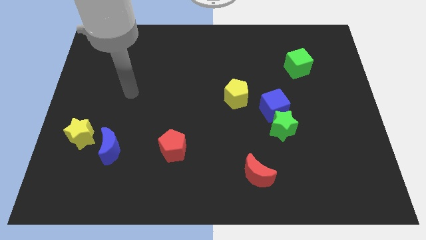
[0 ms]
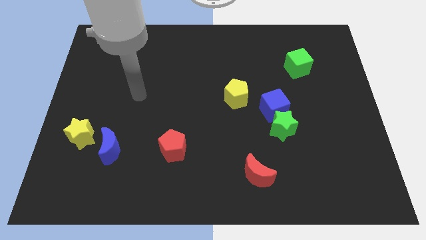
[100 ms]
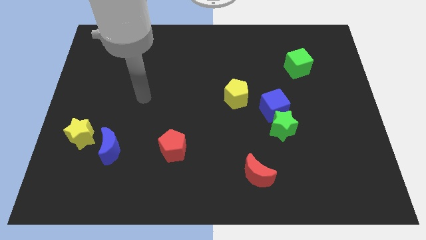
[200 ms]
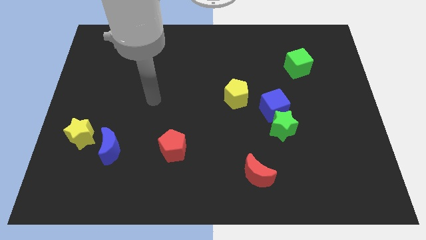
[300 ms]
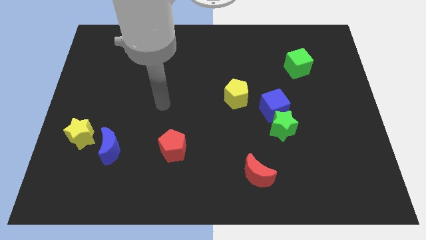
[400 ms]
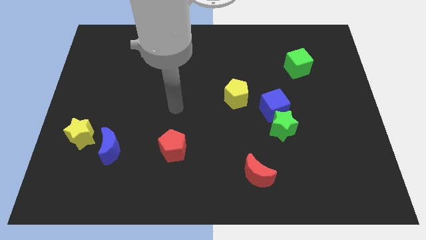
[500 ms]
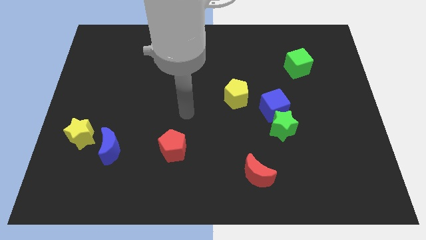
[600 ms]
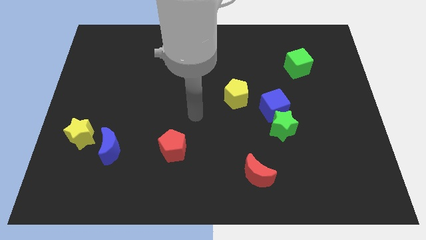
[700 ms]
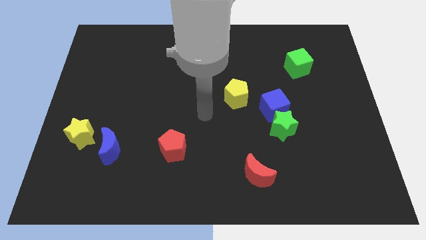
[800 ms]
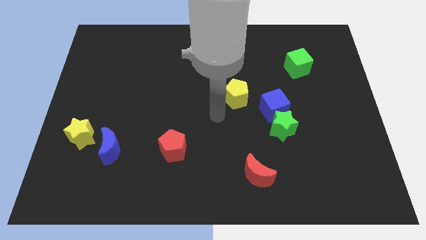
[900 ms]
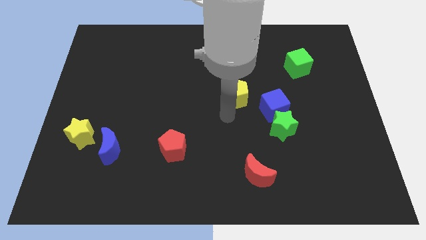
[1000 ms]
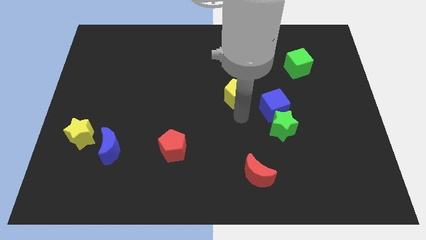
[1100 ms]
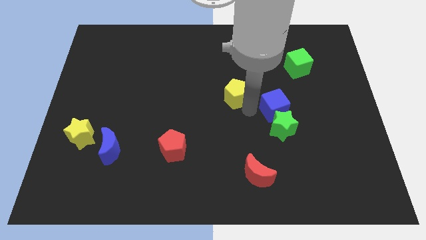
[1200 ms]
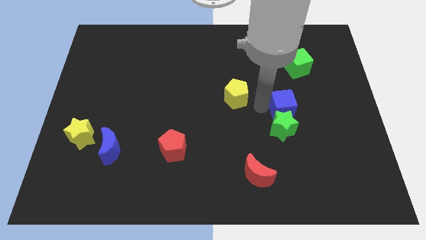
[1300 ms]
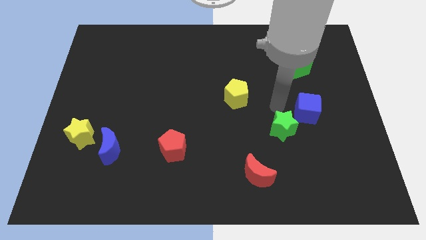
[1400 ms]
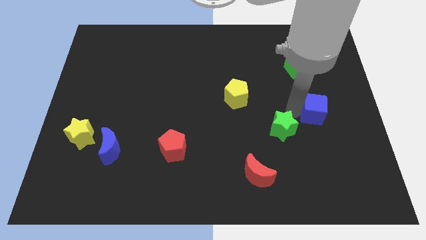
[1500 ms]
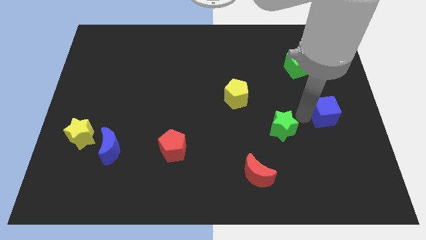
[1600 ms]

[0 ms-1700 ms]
move the green star away from the blue cube

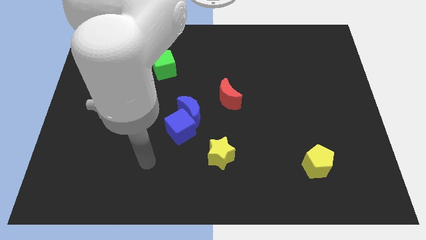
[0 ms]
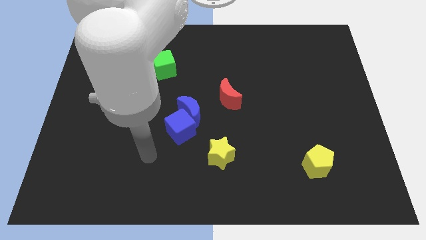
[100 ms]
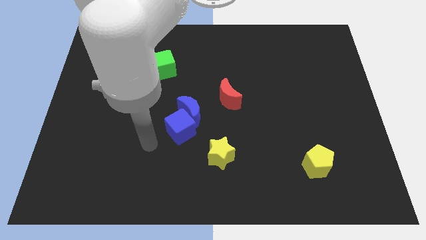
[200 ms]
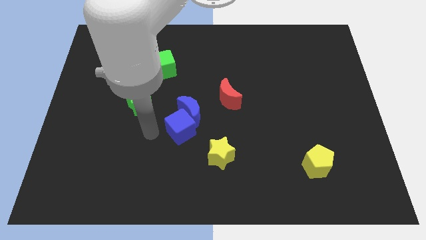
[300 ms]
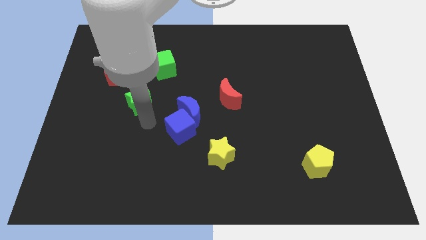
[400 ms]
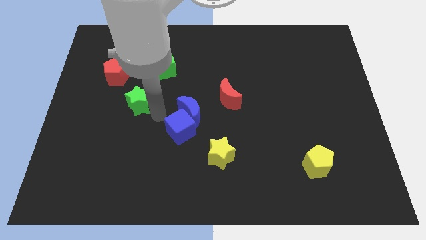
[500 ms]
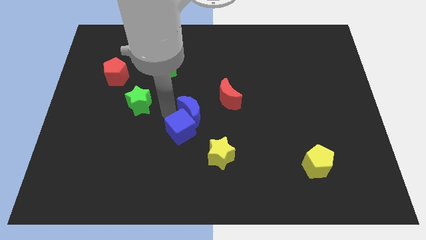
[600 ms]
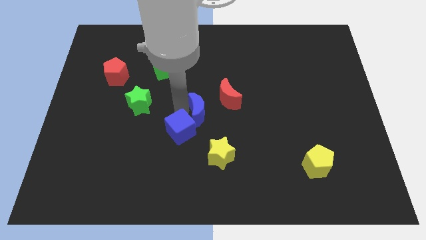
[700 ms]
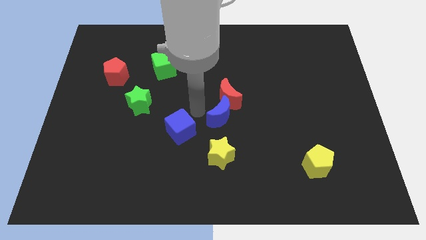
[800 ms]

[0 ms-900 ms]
separate the blue cube from the blue moon

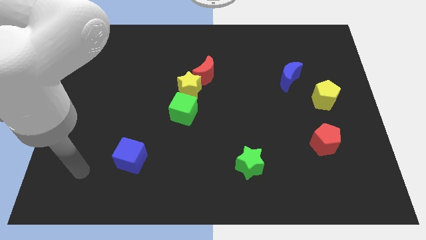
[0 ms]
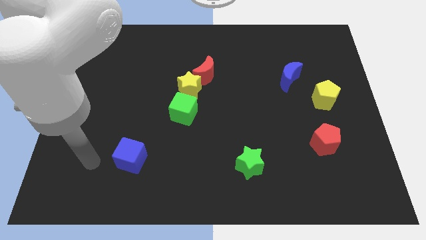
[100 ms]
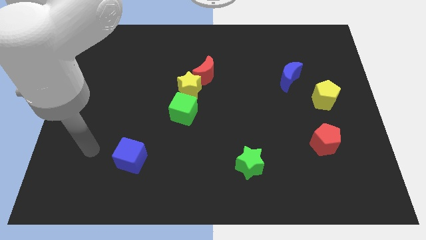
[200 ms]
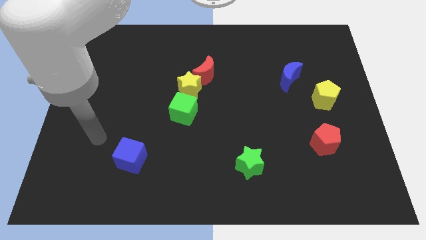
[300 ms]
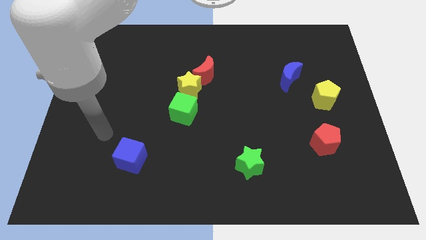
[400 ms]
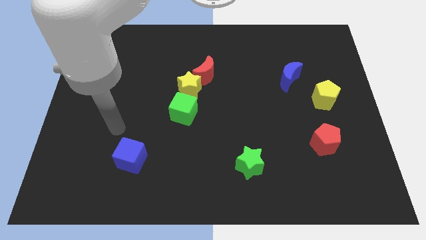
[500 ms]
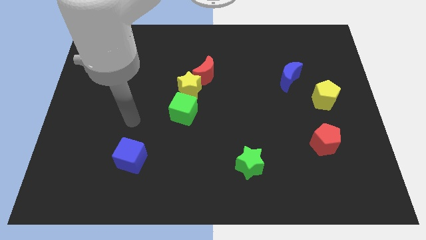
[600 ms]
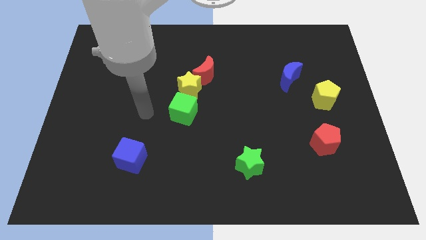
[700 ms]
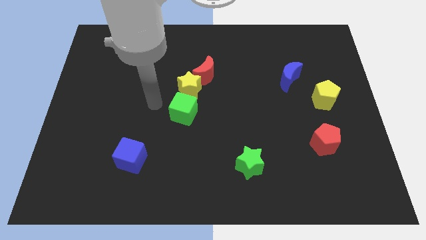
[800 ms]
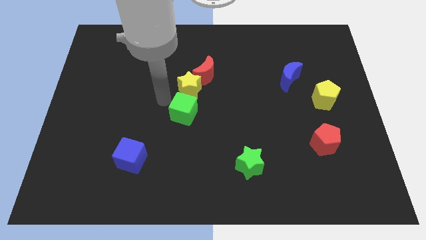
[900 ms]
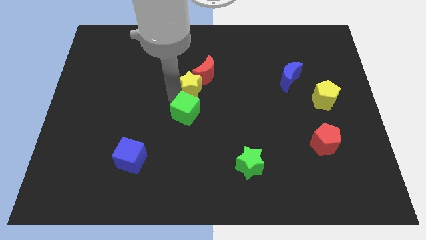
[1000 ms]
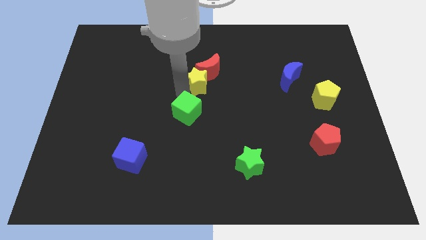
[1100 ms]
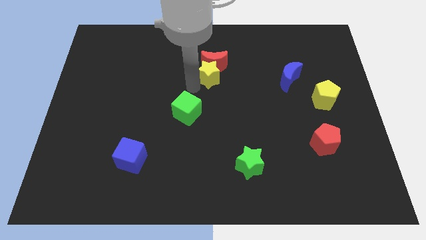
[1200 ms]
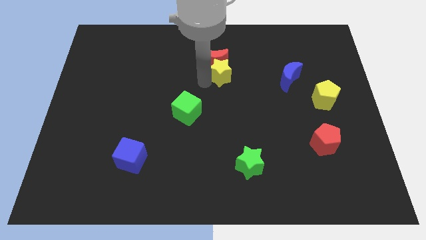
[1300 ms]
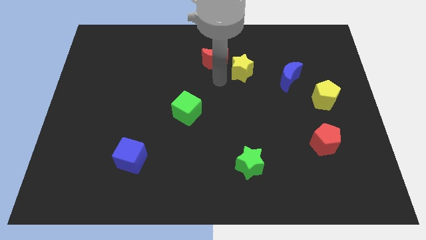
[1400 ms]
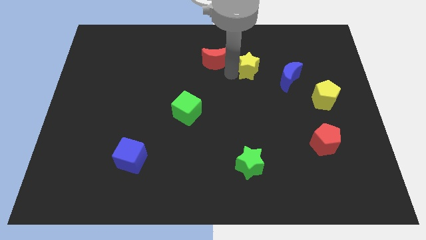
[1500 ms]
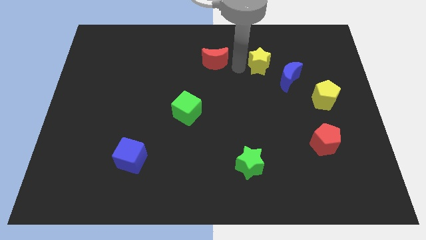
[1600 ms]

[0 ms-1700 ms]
move the red moon away from the yellow star

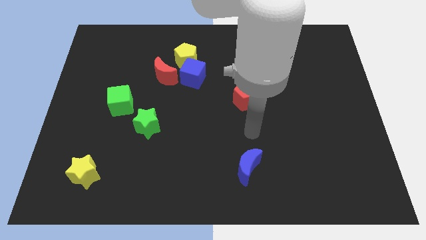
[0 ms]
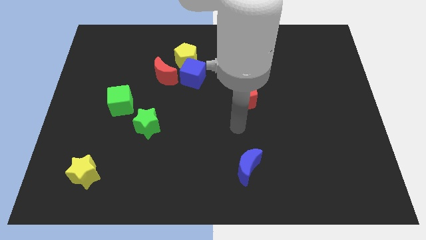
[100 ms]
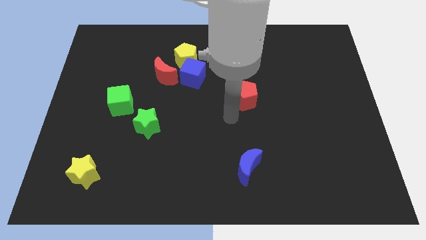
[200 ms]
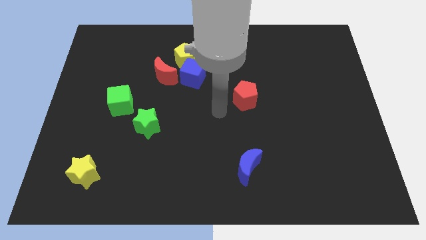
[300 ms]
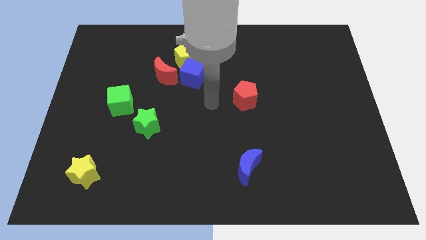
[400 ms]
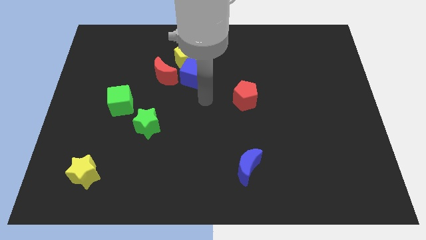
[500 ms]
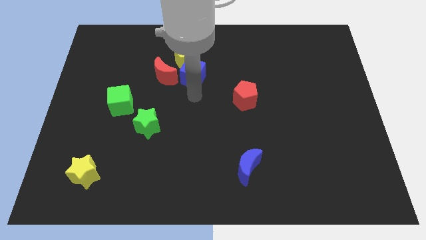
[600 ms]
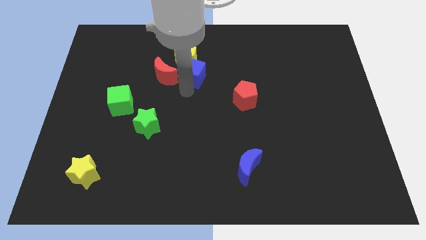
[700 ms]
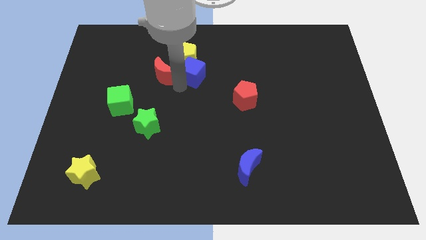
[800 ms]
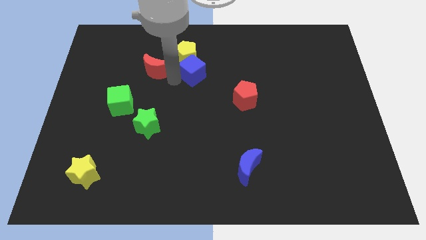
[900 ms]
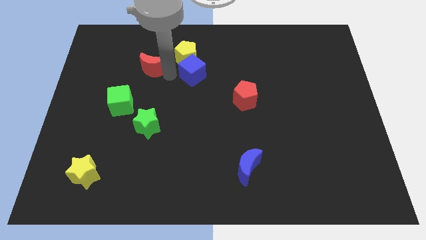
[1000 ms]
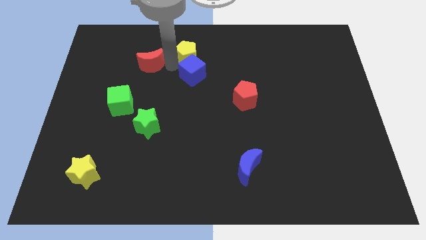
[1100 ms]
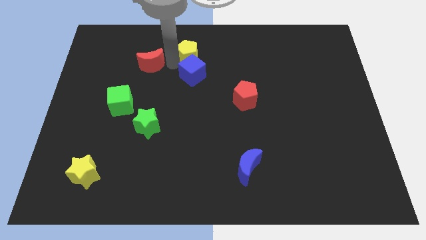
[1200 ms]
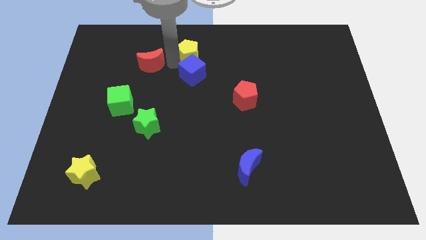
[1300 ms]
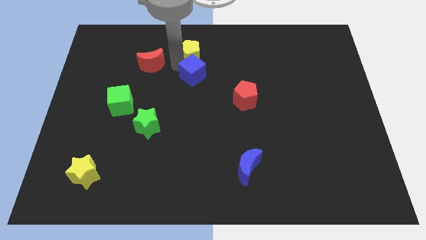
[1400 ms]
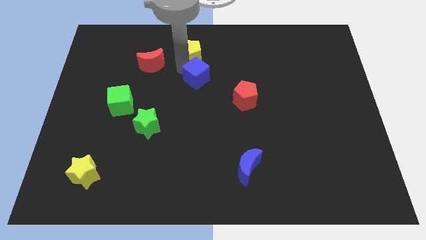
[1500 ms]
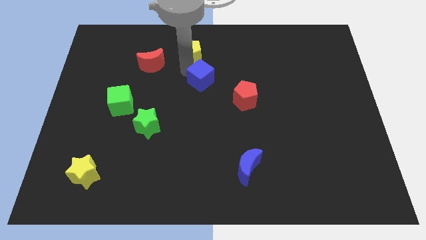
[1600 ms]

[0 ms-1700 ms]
move the blue cube away from the yellow pentagon and red moon

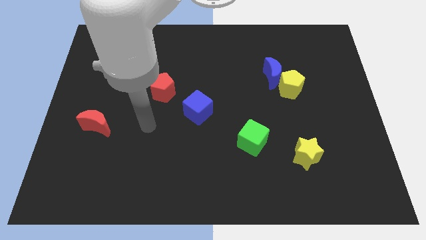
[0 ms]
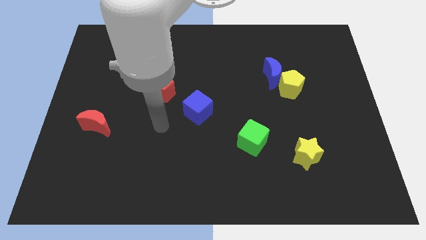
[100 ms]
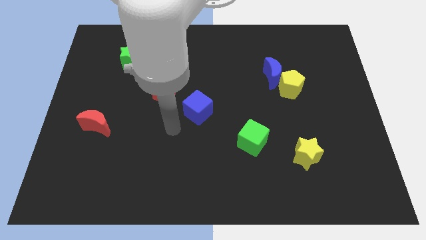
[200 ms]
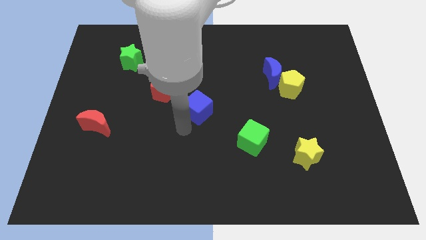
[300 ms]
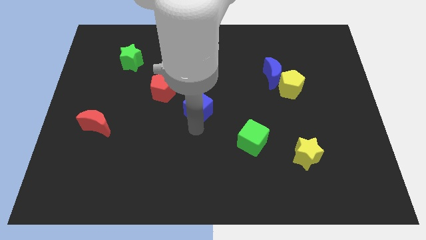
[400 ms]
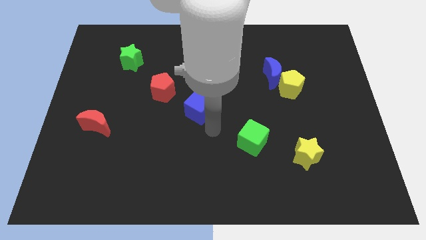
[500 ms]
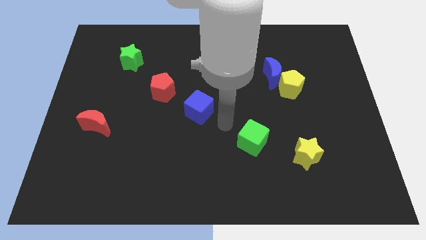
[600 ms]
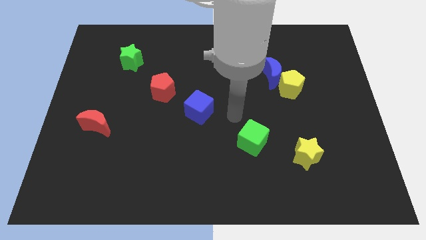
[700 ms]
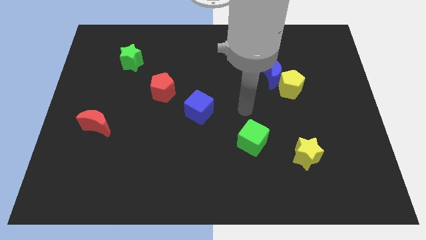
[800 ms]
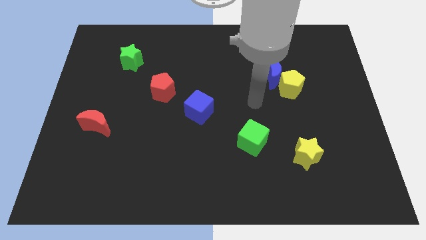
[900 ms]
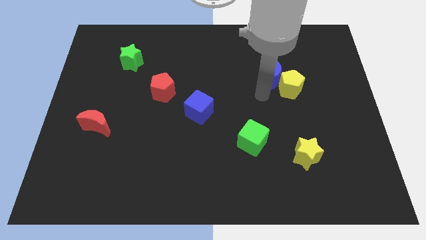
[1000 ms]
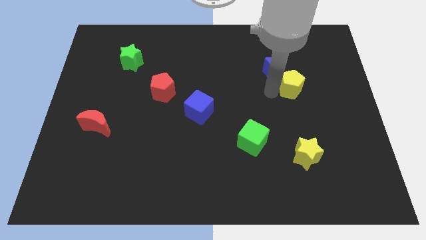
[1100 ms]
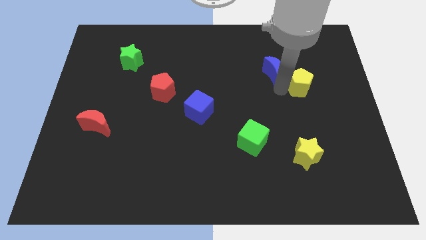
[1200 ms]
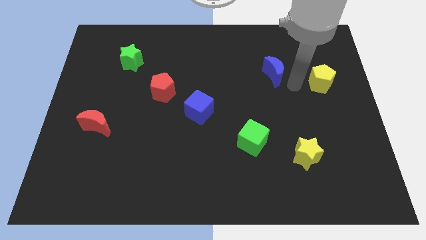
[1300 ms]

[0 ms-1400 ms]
separate the blue moon from the yellow pentagon

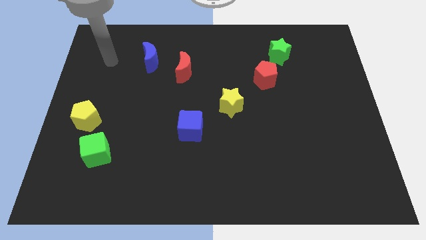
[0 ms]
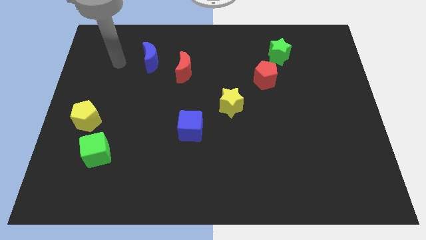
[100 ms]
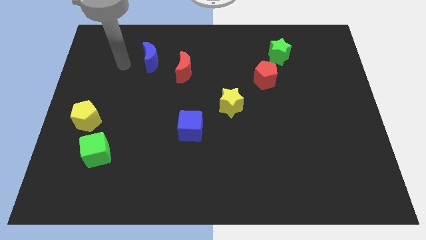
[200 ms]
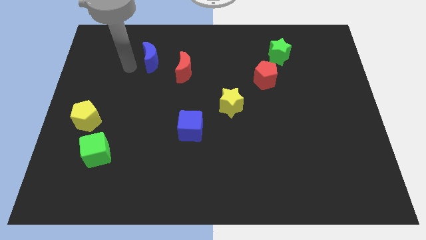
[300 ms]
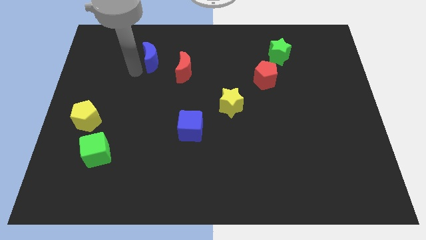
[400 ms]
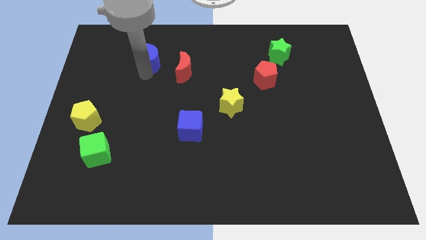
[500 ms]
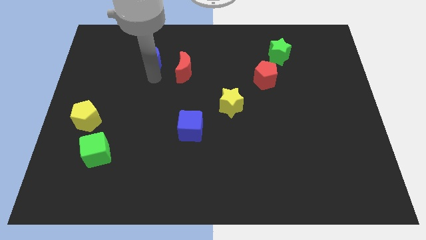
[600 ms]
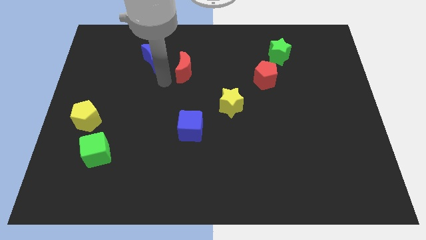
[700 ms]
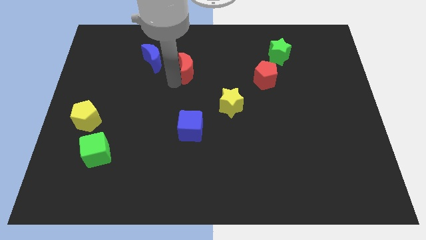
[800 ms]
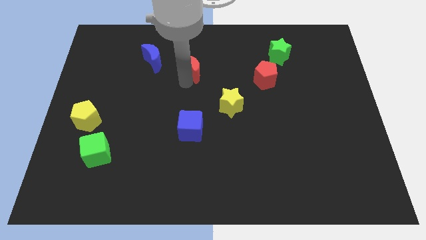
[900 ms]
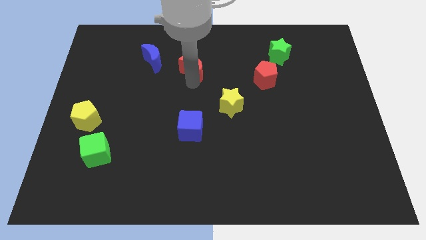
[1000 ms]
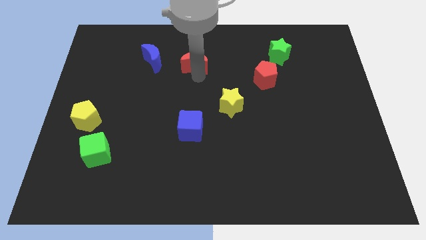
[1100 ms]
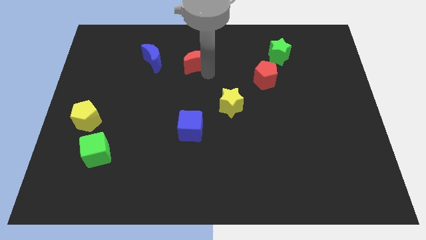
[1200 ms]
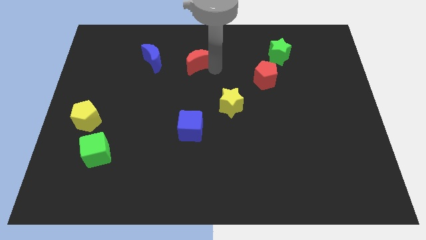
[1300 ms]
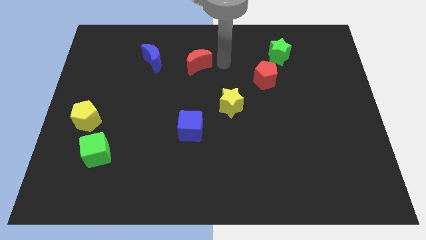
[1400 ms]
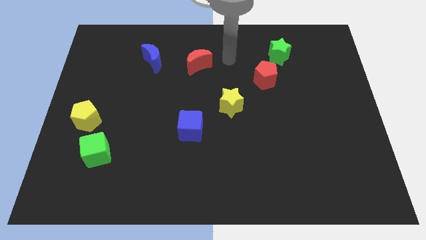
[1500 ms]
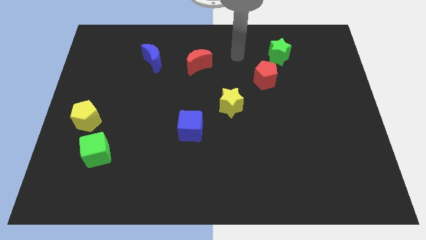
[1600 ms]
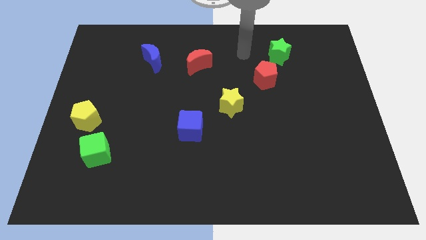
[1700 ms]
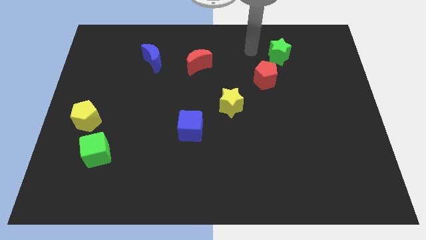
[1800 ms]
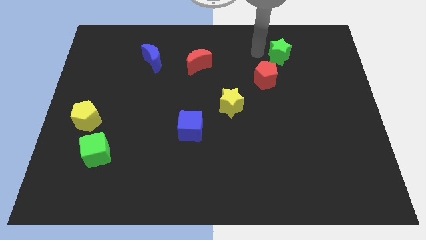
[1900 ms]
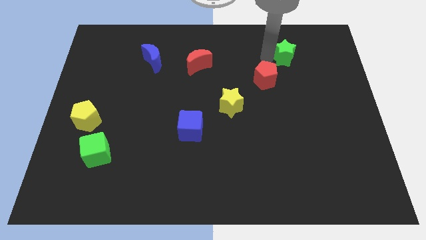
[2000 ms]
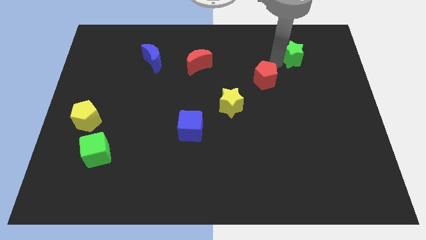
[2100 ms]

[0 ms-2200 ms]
move the red pentagon away from the green star
